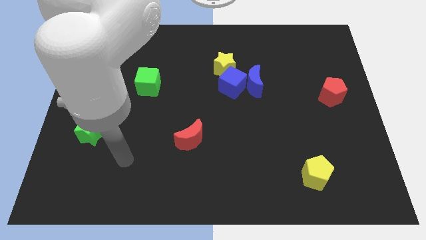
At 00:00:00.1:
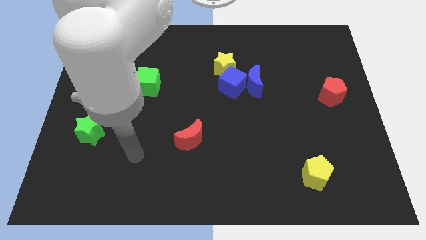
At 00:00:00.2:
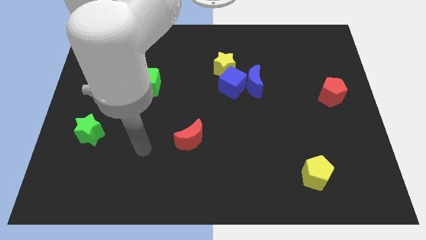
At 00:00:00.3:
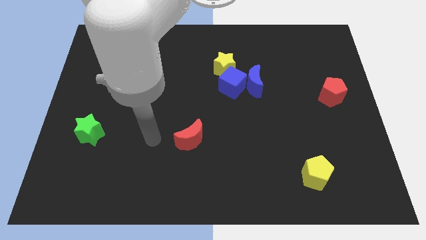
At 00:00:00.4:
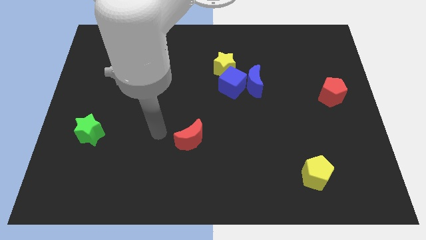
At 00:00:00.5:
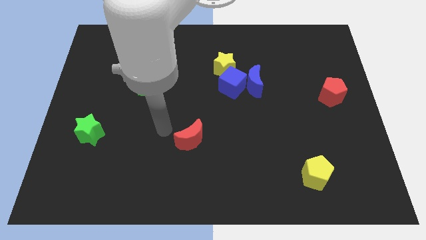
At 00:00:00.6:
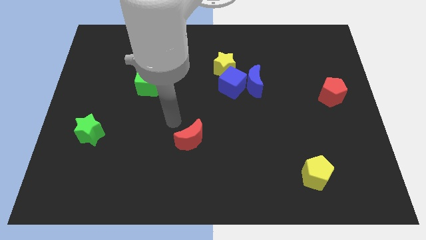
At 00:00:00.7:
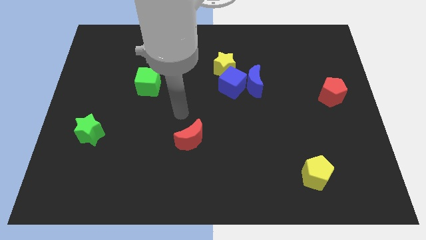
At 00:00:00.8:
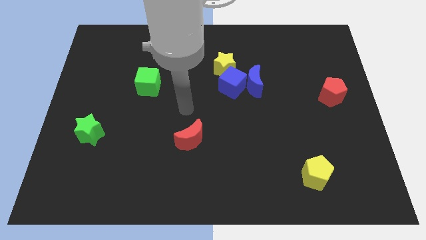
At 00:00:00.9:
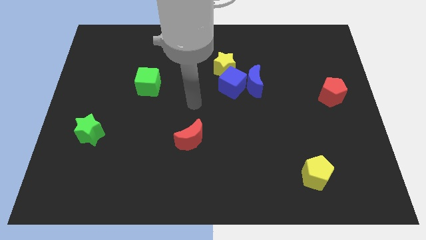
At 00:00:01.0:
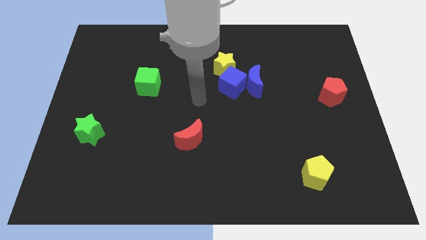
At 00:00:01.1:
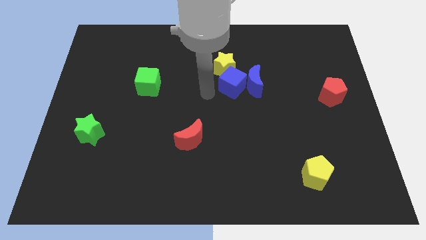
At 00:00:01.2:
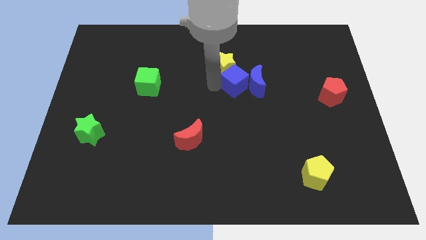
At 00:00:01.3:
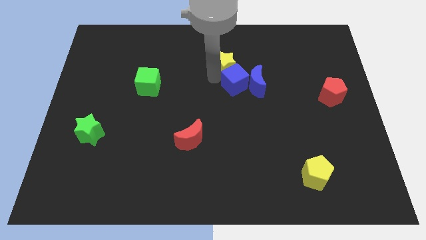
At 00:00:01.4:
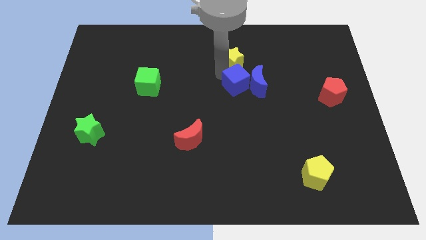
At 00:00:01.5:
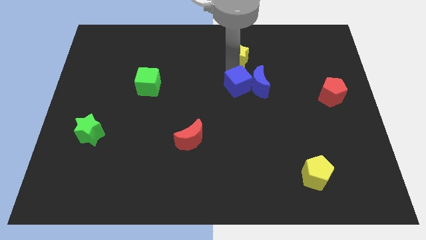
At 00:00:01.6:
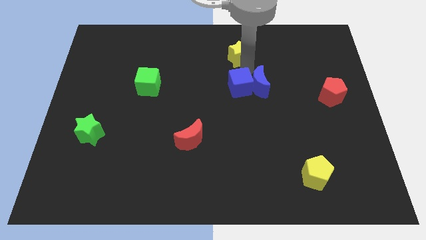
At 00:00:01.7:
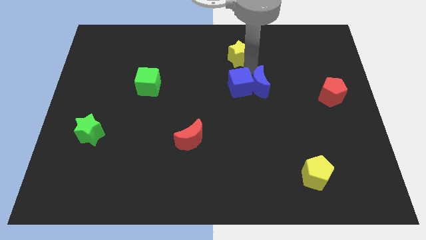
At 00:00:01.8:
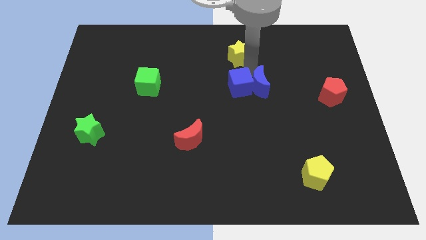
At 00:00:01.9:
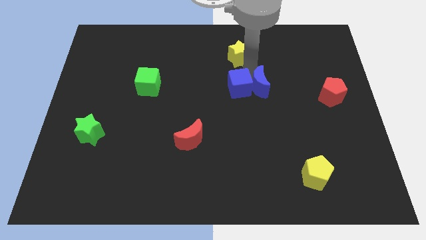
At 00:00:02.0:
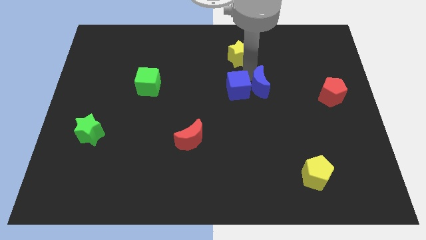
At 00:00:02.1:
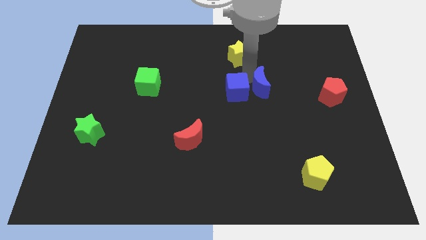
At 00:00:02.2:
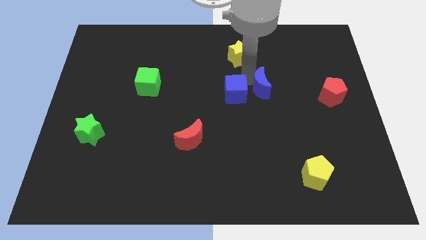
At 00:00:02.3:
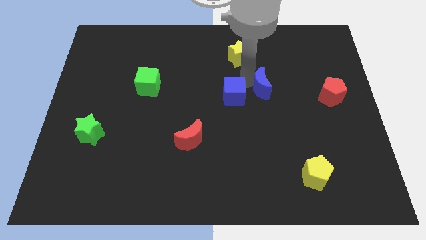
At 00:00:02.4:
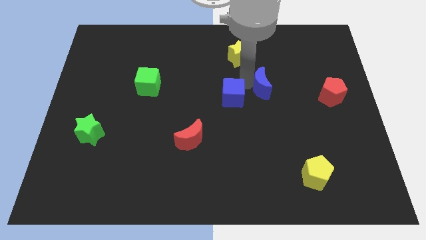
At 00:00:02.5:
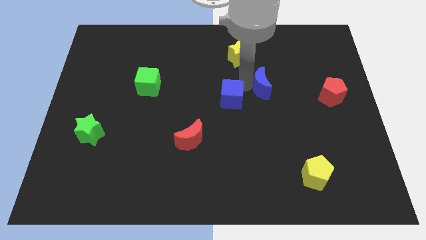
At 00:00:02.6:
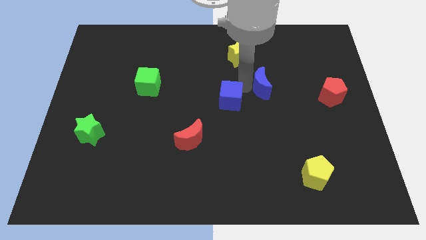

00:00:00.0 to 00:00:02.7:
move the blue cube away from the blue moon and yellow star

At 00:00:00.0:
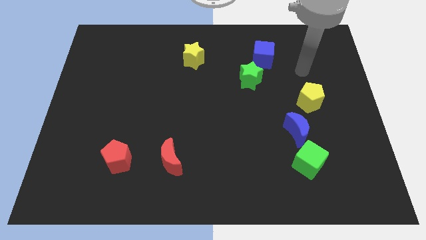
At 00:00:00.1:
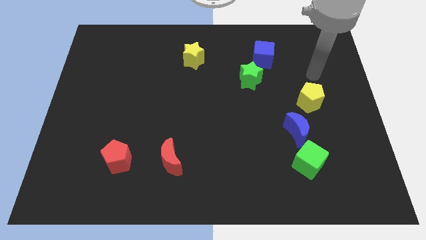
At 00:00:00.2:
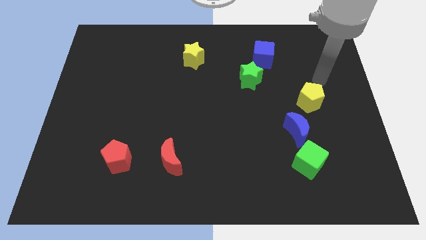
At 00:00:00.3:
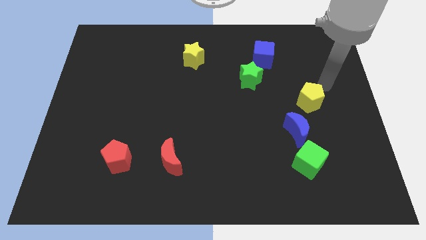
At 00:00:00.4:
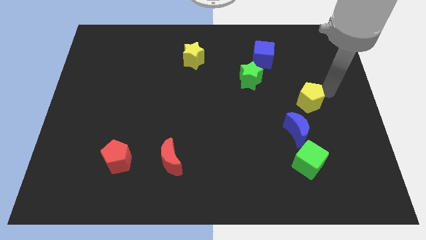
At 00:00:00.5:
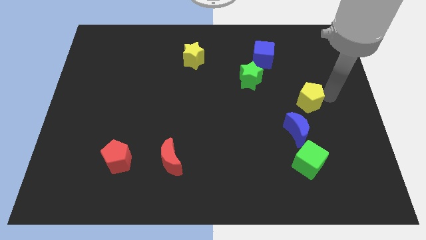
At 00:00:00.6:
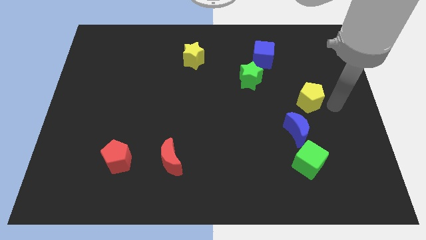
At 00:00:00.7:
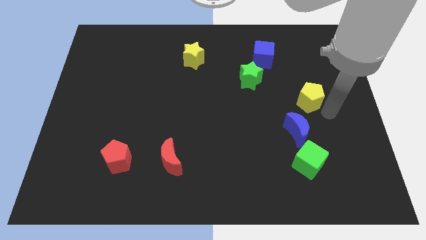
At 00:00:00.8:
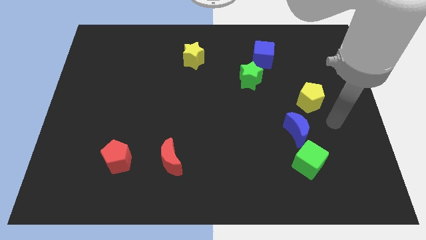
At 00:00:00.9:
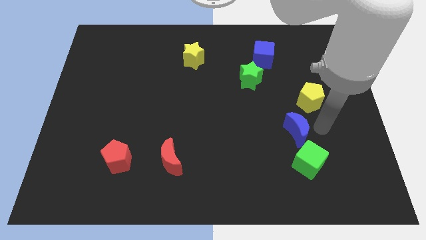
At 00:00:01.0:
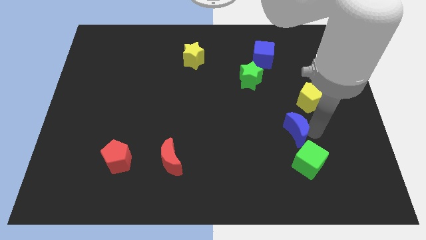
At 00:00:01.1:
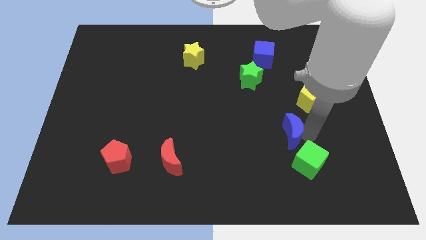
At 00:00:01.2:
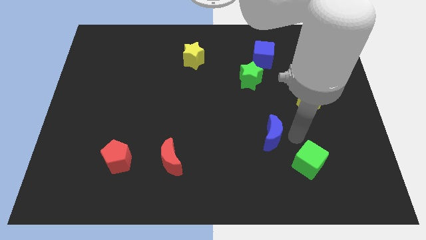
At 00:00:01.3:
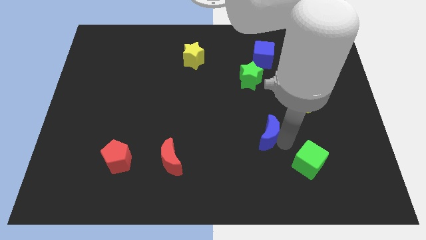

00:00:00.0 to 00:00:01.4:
pull the green cube apart from the blue moon

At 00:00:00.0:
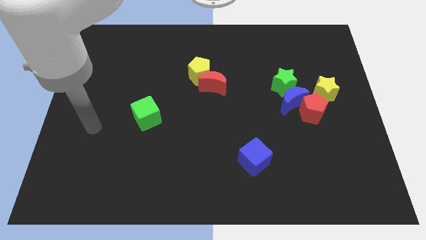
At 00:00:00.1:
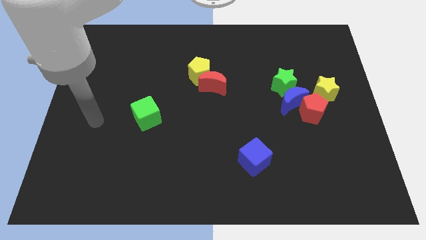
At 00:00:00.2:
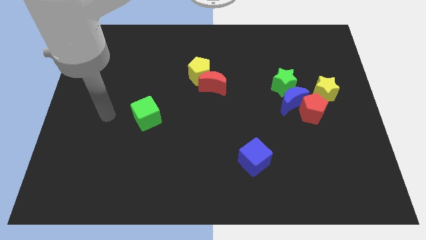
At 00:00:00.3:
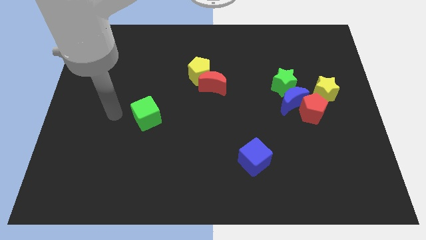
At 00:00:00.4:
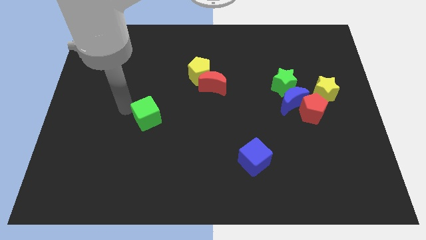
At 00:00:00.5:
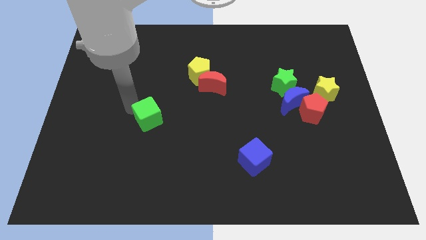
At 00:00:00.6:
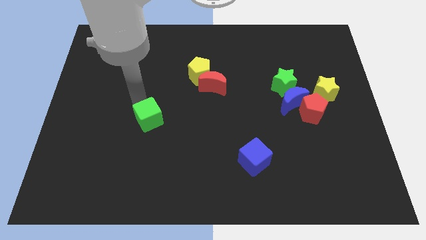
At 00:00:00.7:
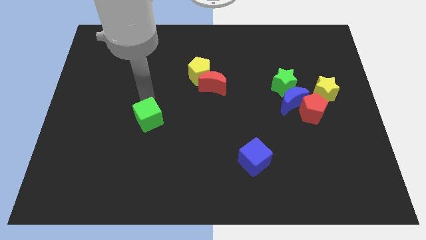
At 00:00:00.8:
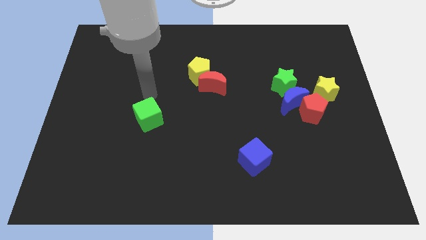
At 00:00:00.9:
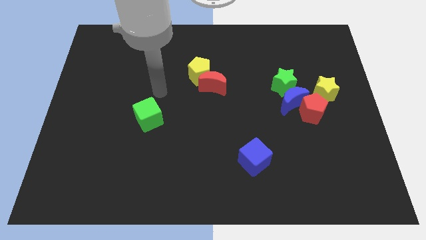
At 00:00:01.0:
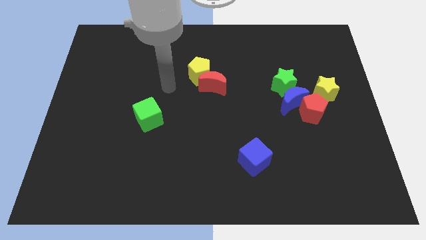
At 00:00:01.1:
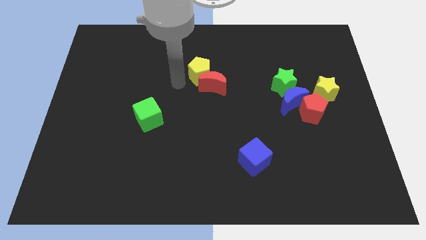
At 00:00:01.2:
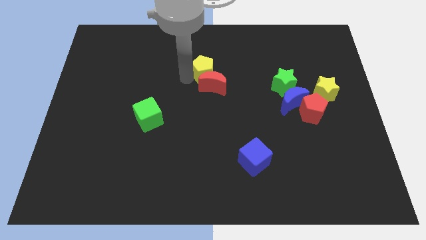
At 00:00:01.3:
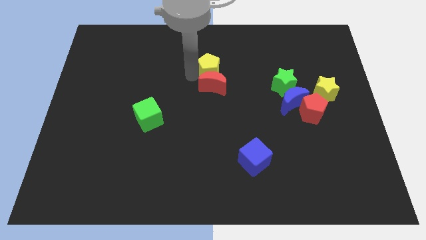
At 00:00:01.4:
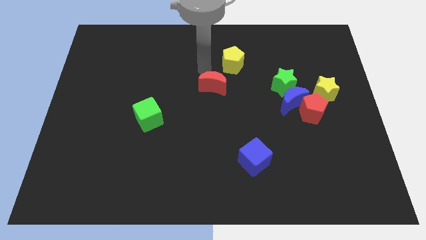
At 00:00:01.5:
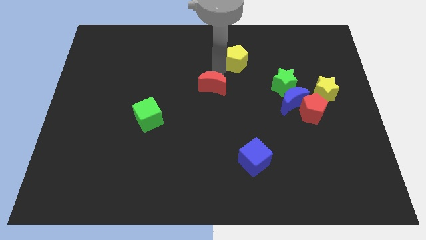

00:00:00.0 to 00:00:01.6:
pull the red moon apart from the yellow pentagon

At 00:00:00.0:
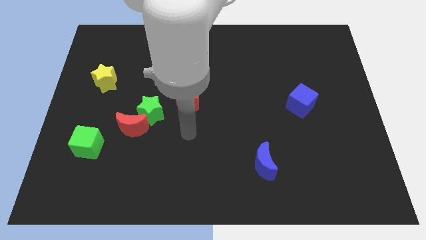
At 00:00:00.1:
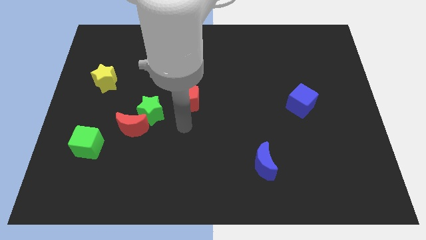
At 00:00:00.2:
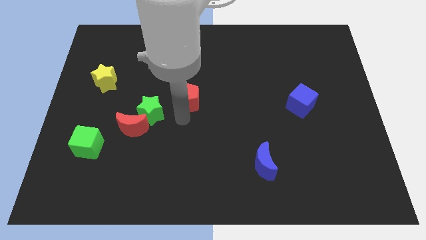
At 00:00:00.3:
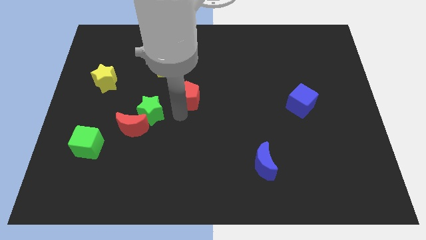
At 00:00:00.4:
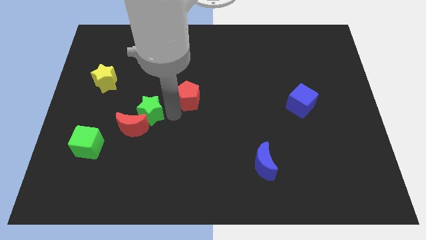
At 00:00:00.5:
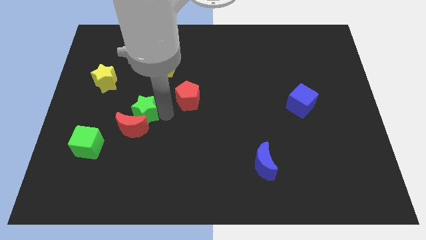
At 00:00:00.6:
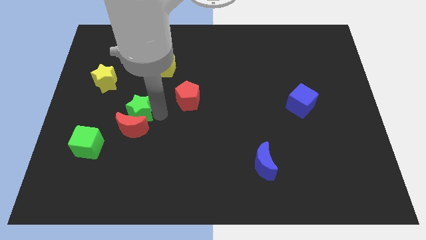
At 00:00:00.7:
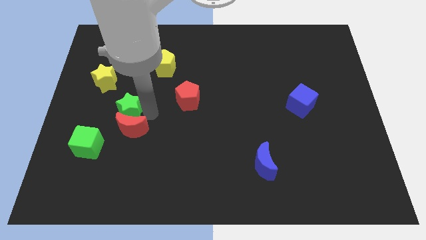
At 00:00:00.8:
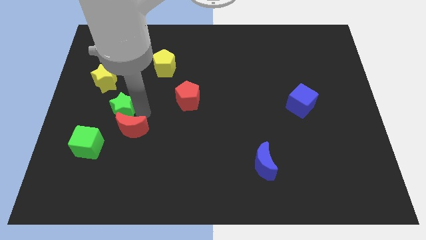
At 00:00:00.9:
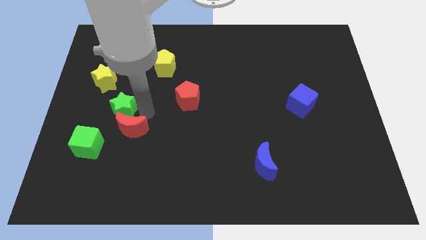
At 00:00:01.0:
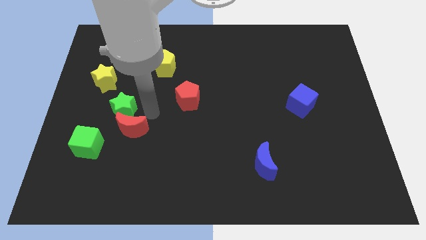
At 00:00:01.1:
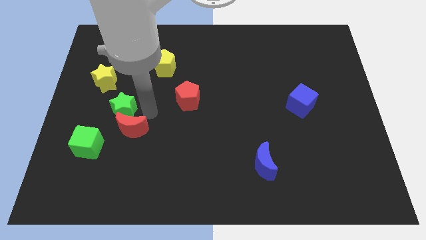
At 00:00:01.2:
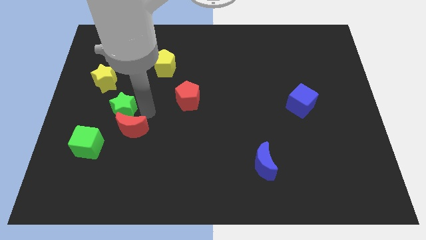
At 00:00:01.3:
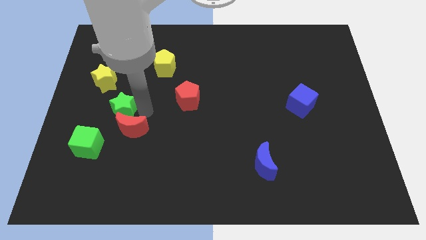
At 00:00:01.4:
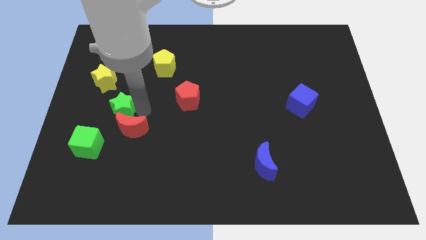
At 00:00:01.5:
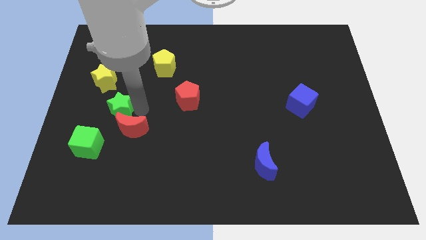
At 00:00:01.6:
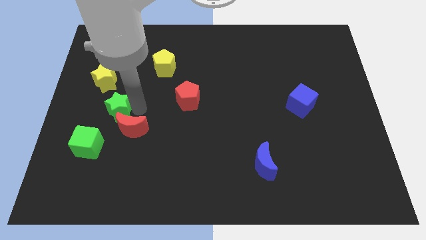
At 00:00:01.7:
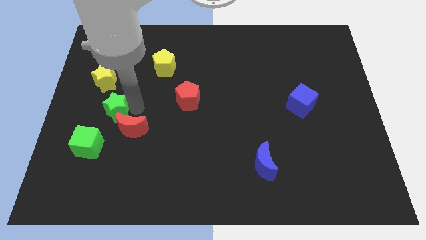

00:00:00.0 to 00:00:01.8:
separate the green star from the red moon and red pentagon

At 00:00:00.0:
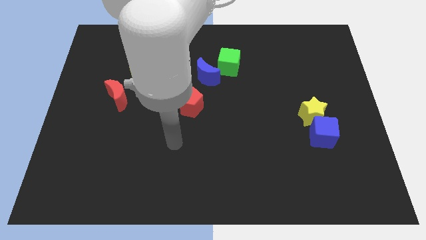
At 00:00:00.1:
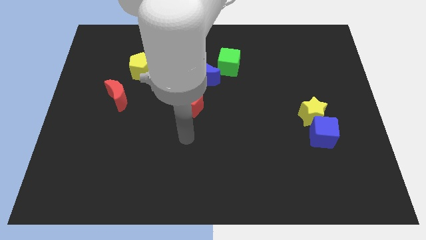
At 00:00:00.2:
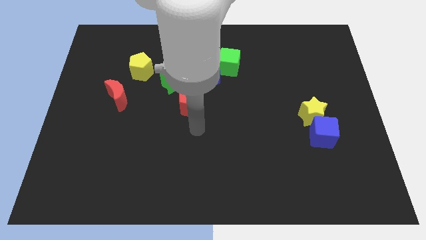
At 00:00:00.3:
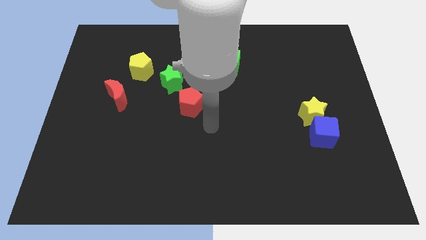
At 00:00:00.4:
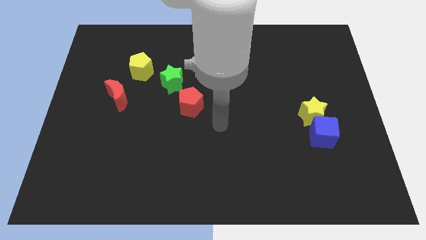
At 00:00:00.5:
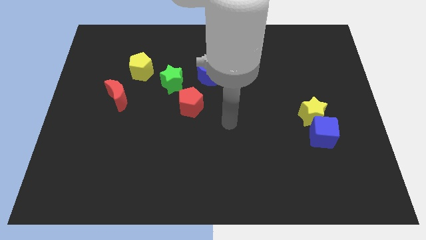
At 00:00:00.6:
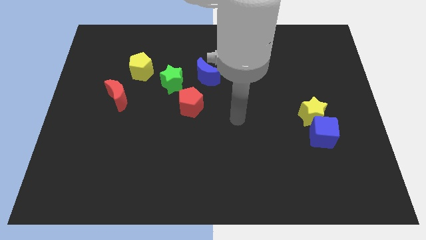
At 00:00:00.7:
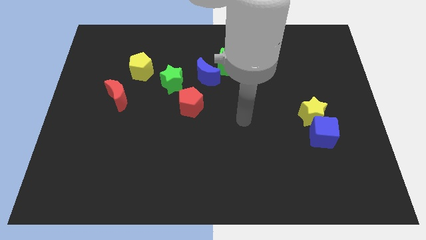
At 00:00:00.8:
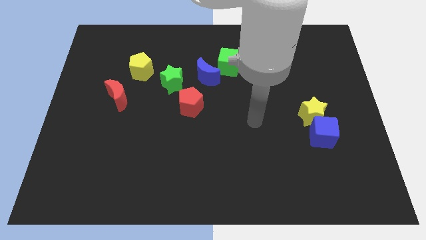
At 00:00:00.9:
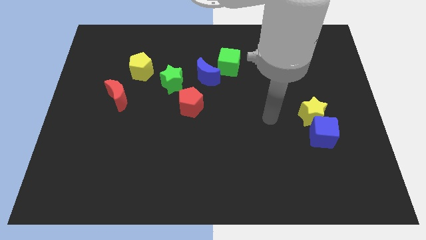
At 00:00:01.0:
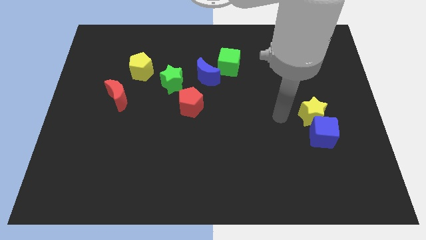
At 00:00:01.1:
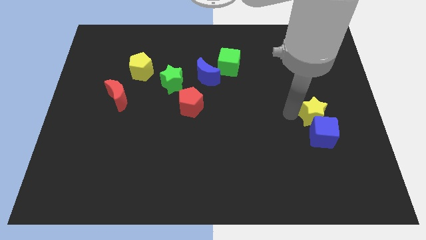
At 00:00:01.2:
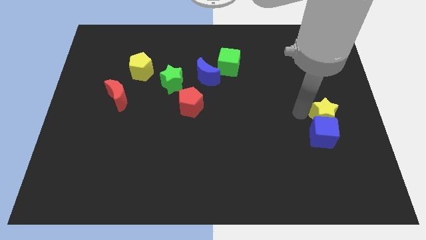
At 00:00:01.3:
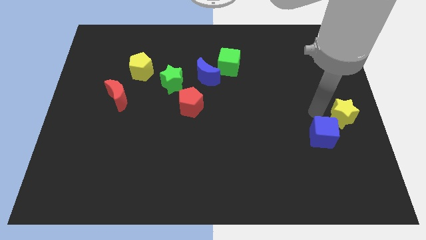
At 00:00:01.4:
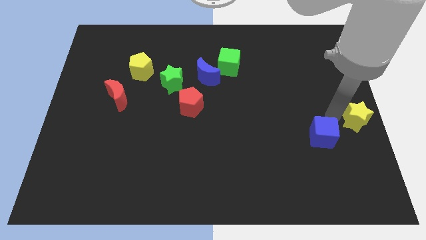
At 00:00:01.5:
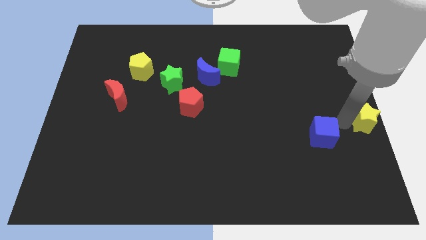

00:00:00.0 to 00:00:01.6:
move the blue cube away from the yellow star
